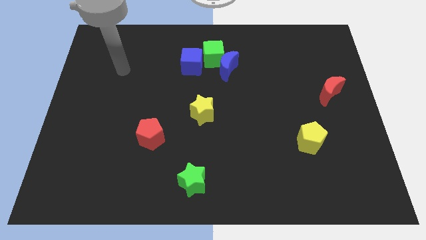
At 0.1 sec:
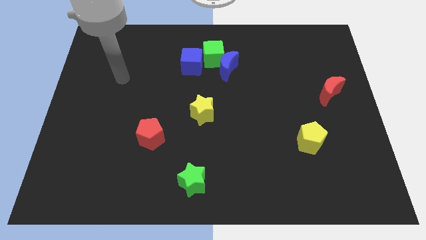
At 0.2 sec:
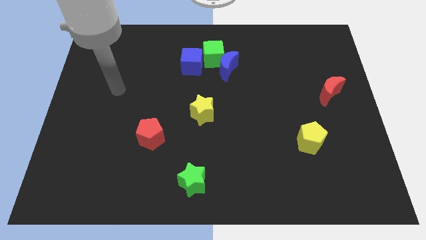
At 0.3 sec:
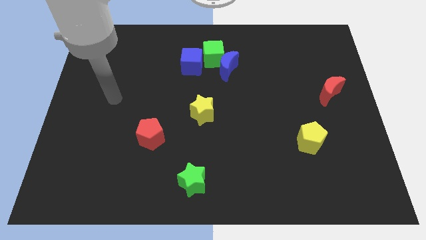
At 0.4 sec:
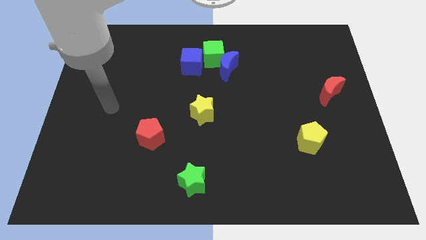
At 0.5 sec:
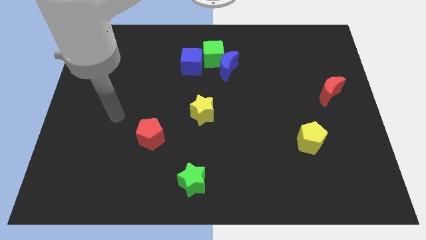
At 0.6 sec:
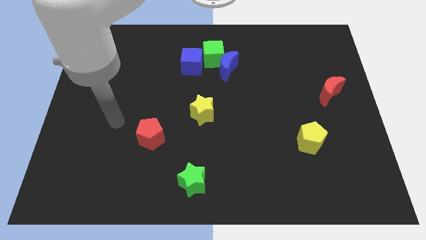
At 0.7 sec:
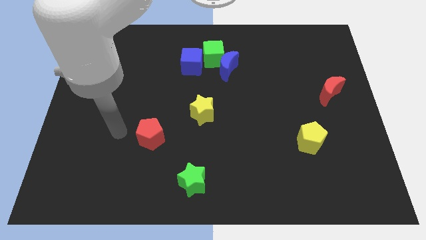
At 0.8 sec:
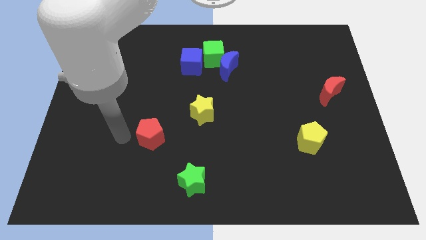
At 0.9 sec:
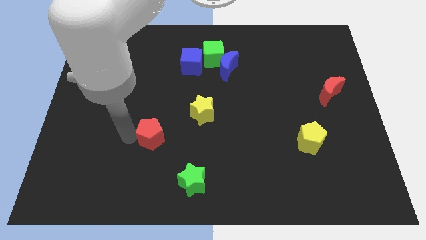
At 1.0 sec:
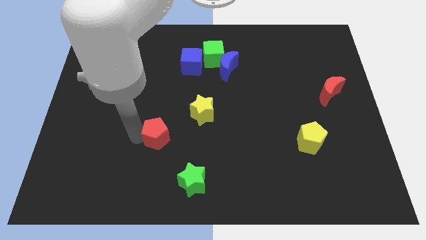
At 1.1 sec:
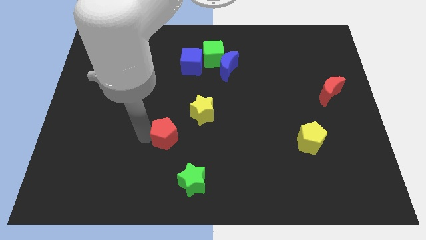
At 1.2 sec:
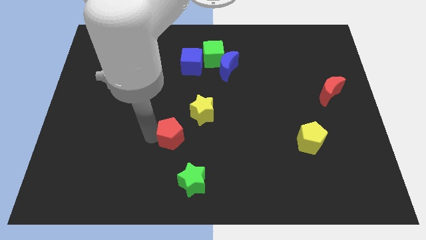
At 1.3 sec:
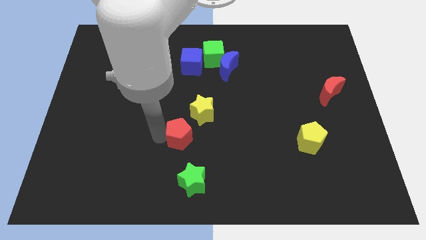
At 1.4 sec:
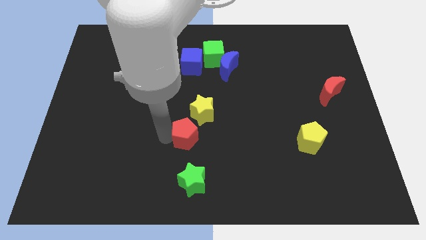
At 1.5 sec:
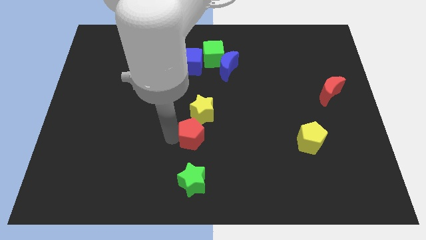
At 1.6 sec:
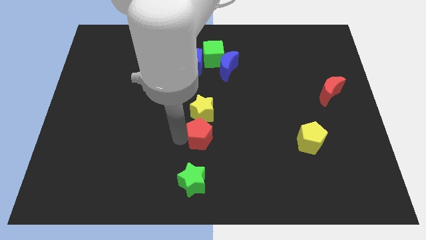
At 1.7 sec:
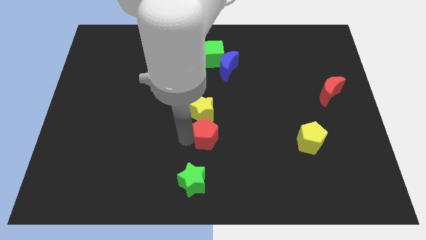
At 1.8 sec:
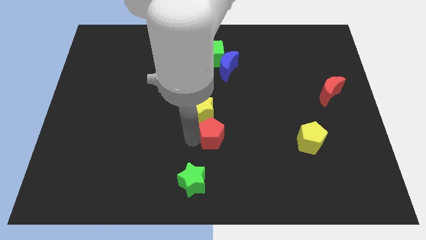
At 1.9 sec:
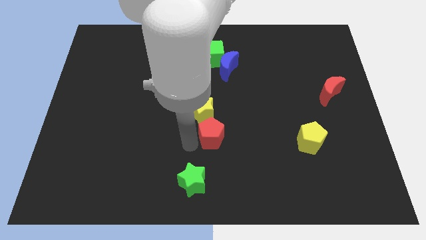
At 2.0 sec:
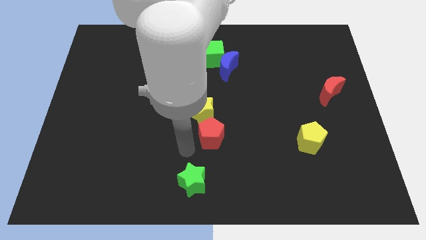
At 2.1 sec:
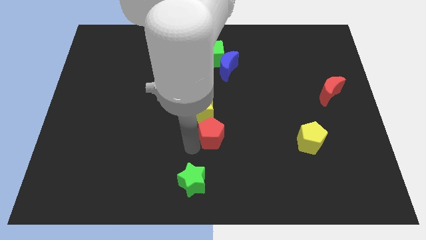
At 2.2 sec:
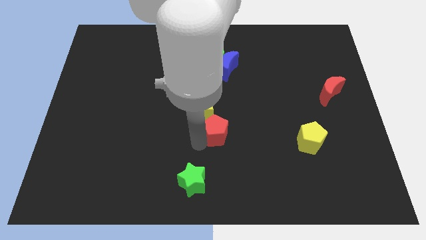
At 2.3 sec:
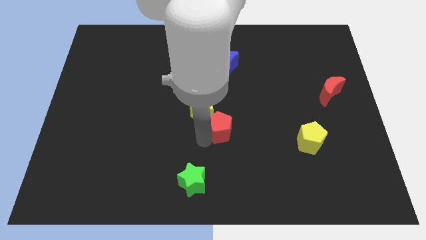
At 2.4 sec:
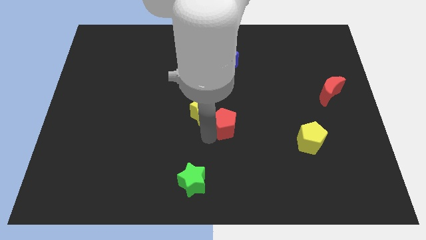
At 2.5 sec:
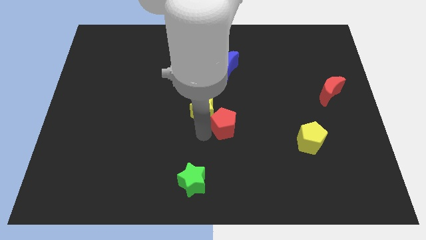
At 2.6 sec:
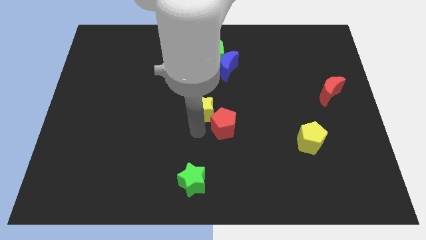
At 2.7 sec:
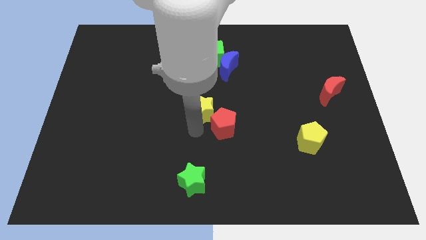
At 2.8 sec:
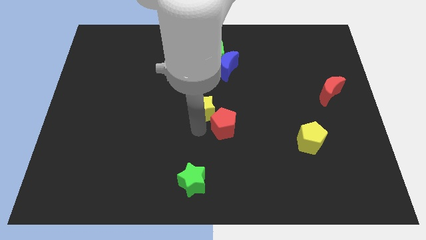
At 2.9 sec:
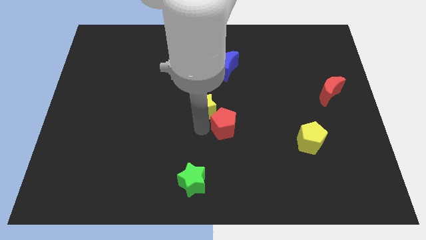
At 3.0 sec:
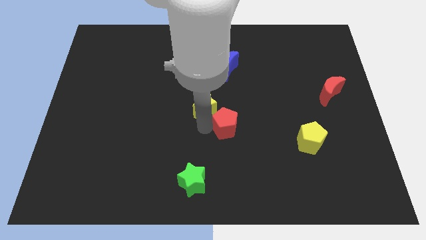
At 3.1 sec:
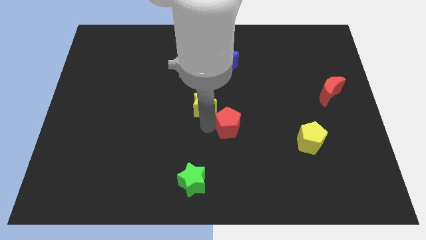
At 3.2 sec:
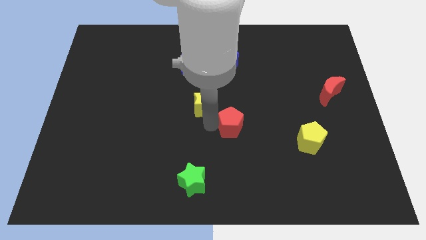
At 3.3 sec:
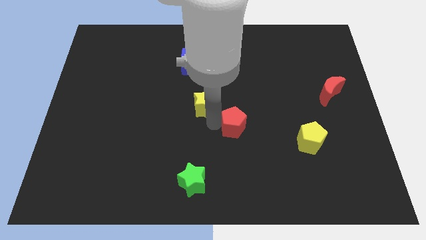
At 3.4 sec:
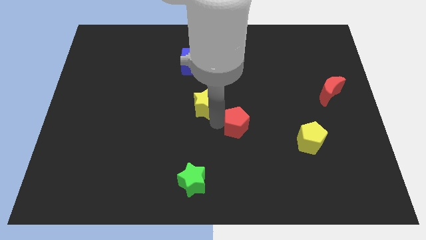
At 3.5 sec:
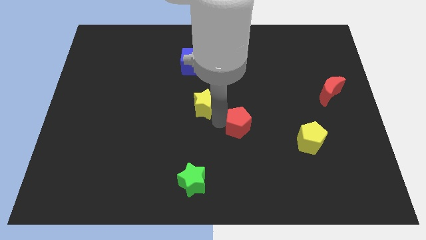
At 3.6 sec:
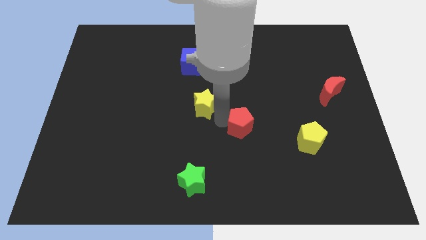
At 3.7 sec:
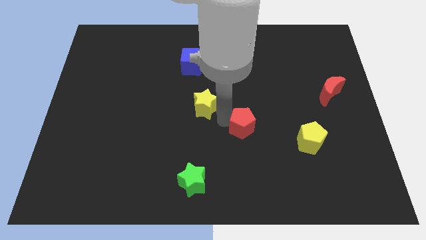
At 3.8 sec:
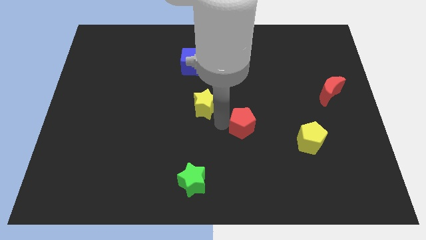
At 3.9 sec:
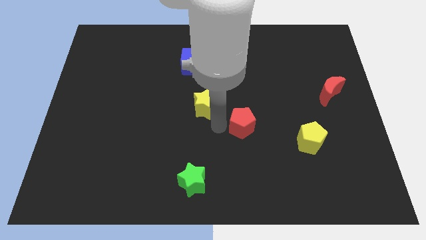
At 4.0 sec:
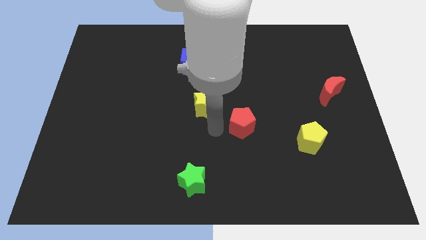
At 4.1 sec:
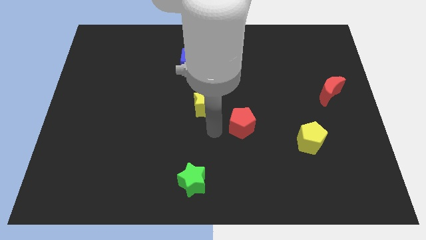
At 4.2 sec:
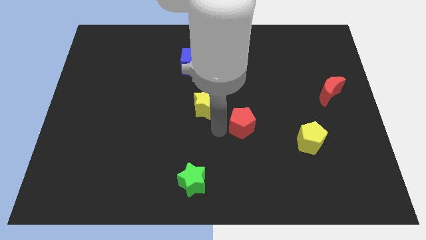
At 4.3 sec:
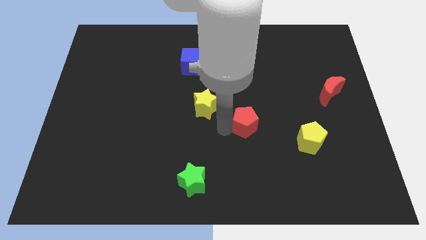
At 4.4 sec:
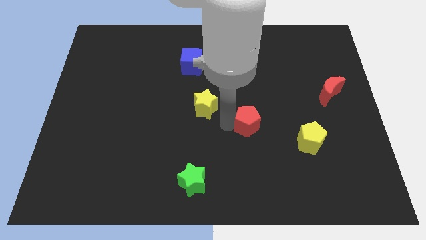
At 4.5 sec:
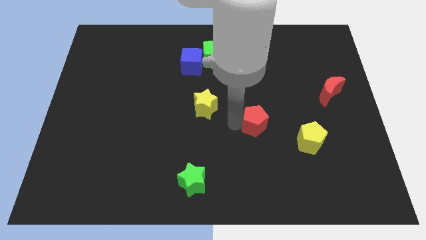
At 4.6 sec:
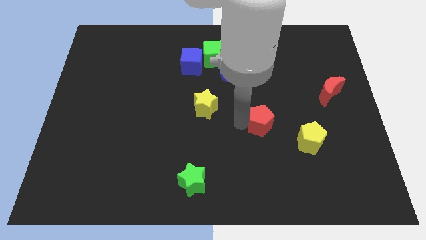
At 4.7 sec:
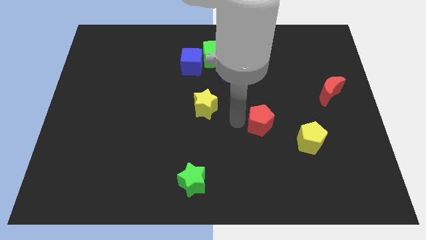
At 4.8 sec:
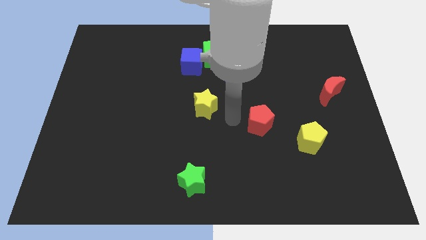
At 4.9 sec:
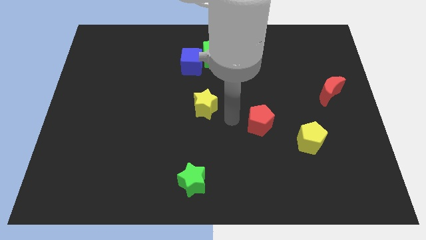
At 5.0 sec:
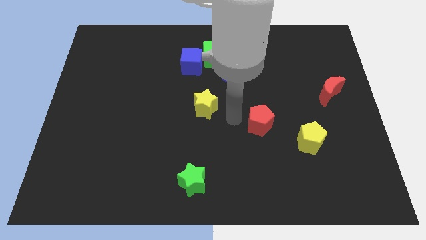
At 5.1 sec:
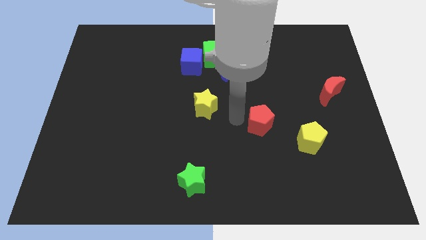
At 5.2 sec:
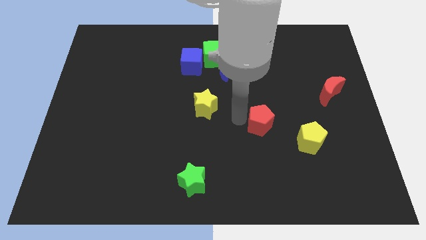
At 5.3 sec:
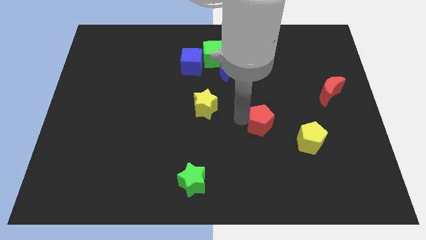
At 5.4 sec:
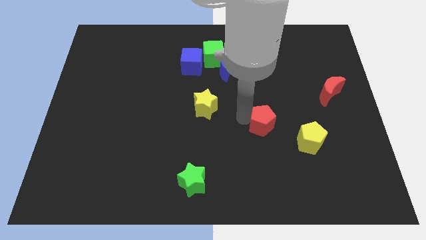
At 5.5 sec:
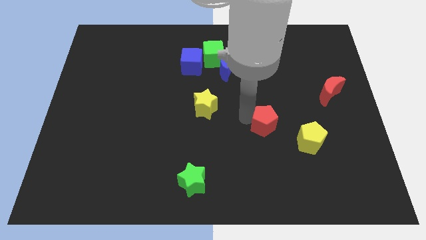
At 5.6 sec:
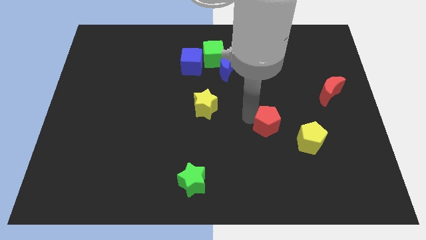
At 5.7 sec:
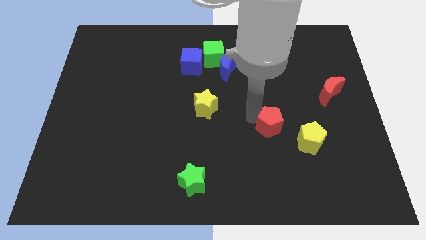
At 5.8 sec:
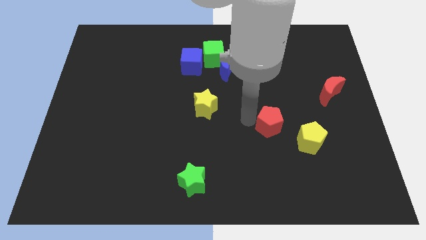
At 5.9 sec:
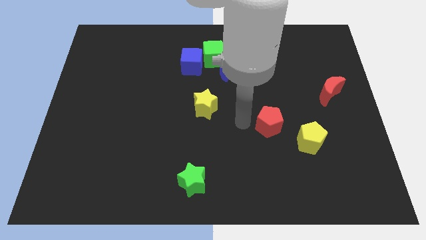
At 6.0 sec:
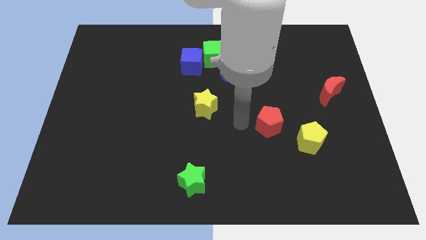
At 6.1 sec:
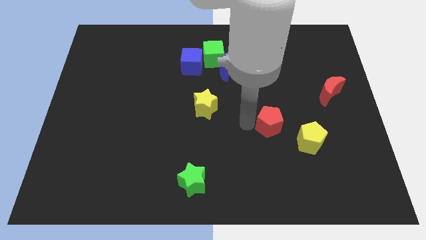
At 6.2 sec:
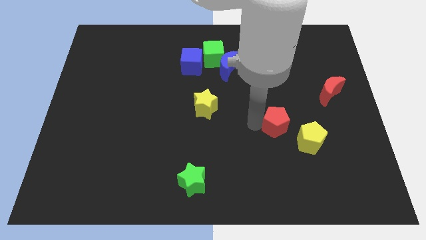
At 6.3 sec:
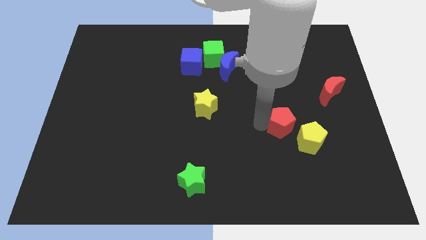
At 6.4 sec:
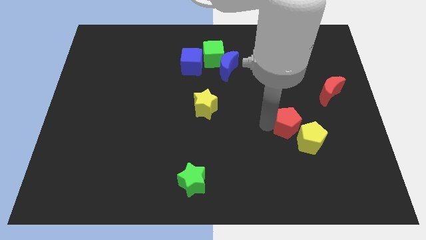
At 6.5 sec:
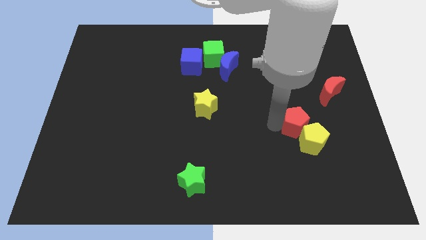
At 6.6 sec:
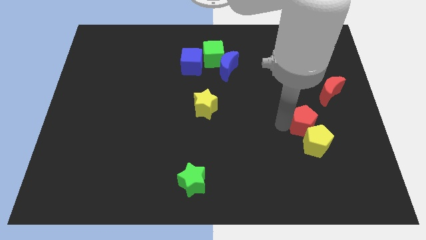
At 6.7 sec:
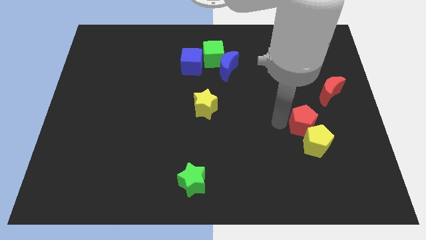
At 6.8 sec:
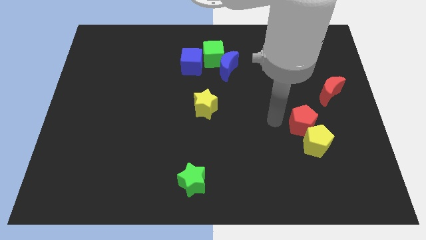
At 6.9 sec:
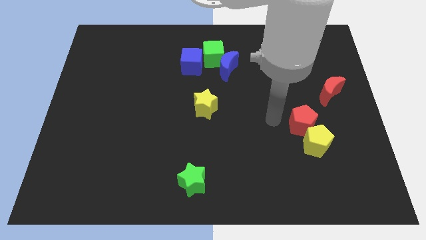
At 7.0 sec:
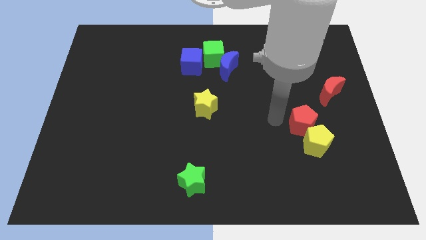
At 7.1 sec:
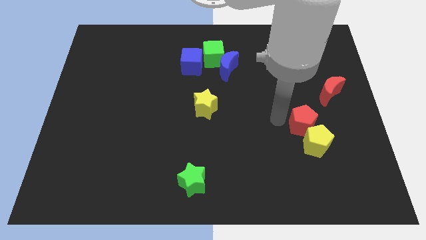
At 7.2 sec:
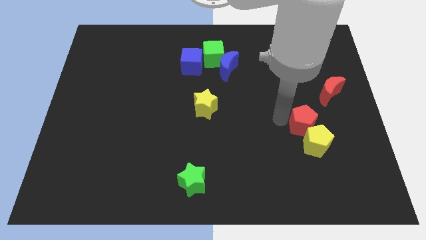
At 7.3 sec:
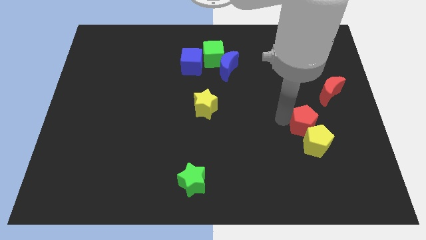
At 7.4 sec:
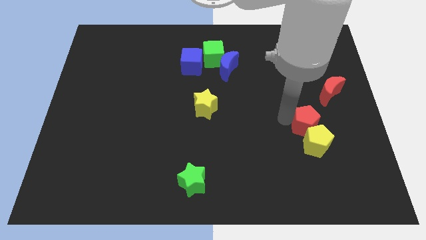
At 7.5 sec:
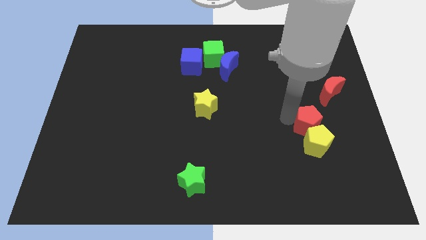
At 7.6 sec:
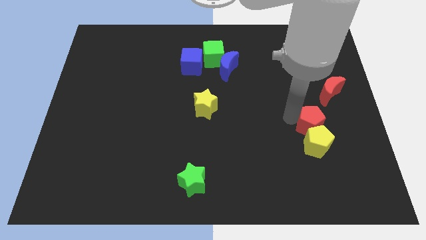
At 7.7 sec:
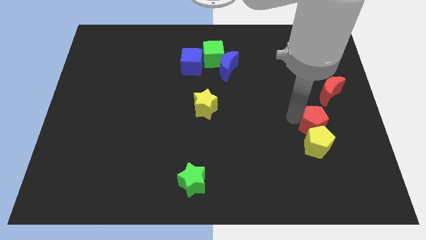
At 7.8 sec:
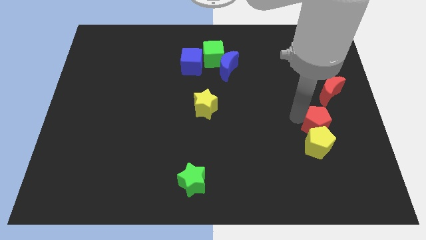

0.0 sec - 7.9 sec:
push the red pentagon below the red moon

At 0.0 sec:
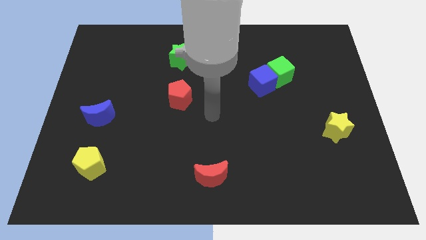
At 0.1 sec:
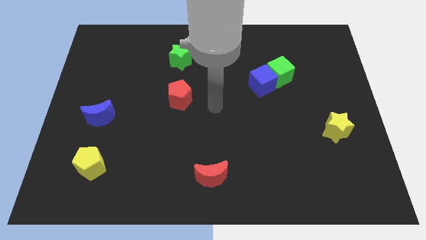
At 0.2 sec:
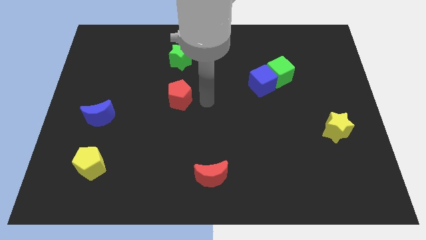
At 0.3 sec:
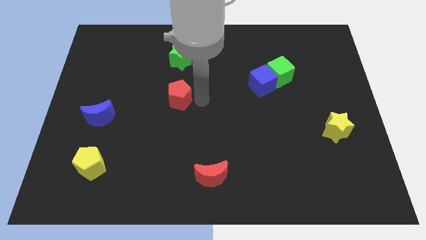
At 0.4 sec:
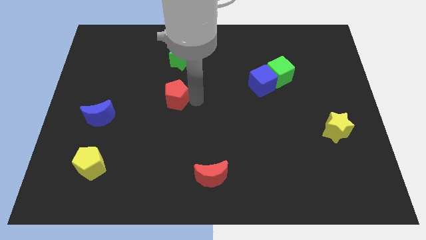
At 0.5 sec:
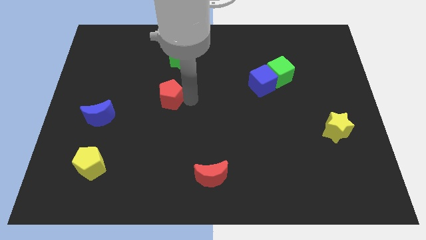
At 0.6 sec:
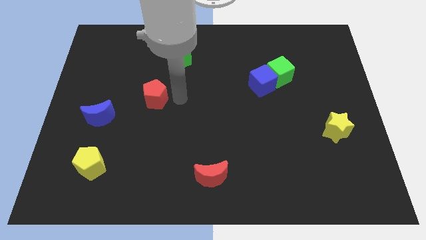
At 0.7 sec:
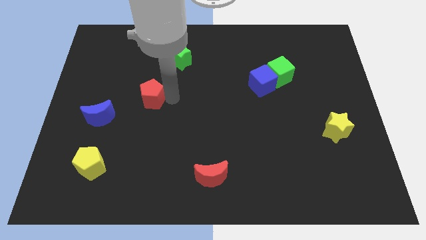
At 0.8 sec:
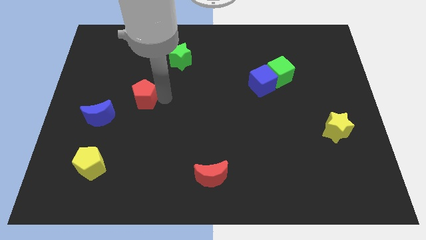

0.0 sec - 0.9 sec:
put the red pentagon to the top right of the blue moon
